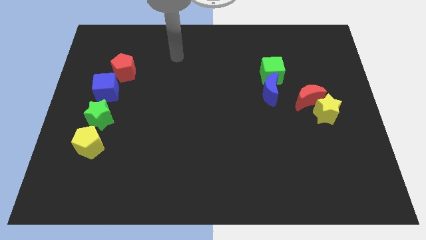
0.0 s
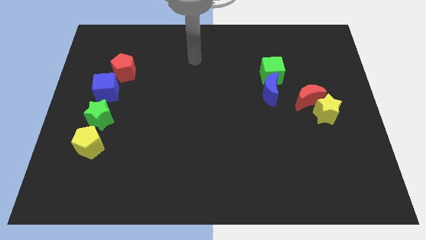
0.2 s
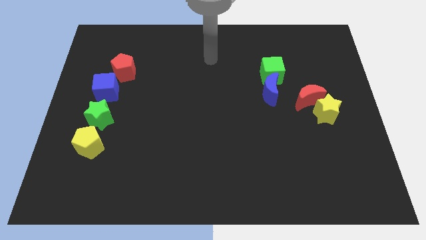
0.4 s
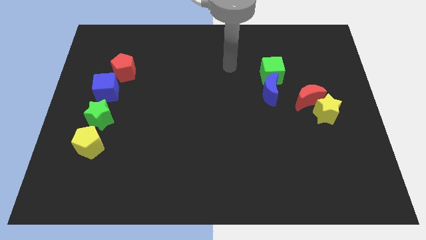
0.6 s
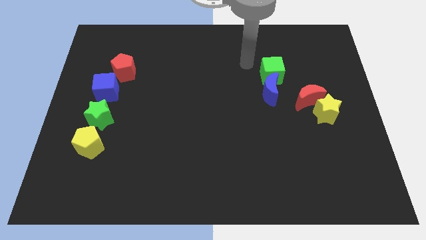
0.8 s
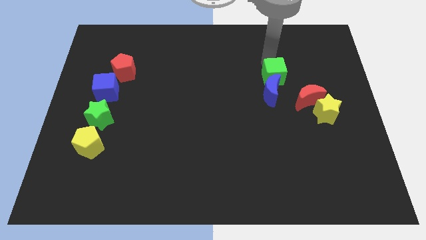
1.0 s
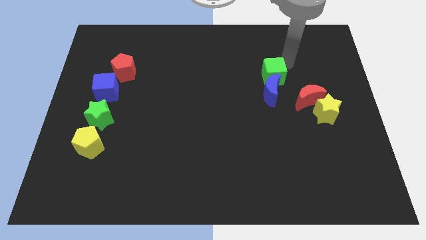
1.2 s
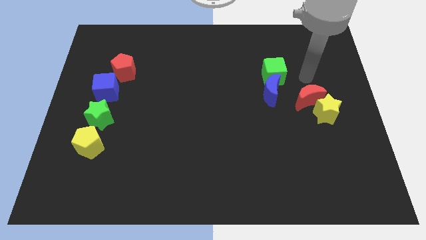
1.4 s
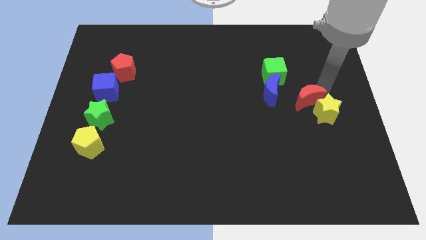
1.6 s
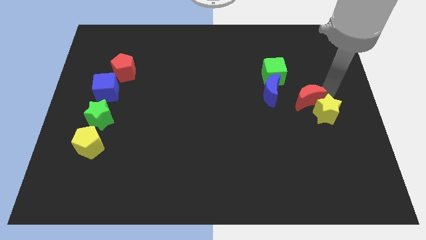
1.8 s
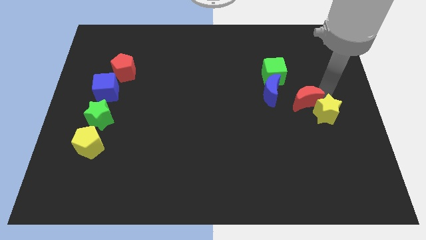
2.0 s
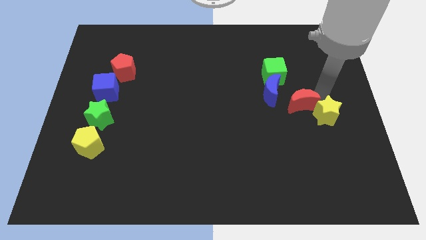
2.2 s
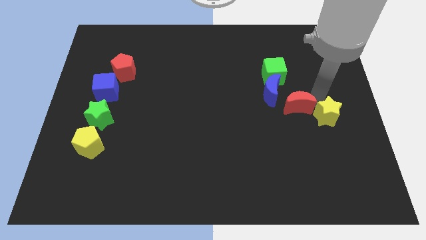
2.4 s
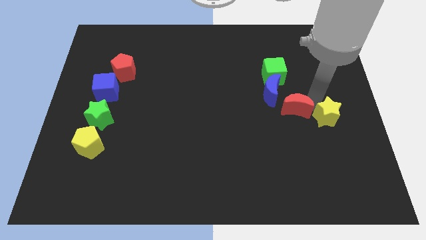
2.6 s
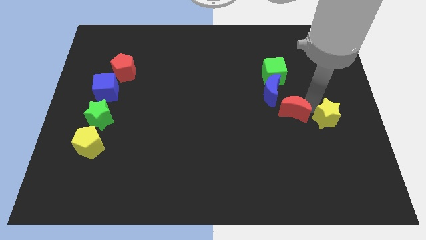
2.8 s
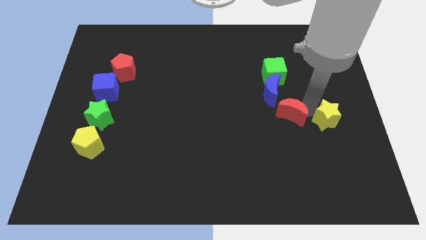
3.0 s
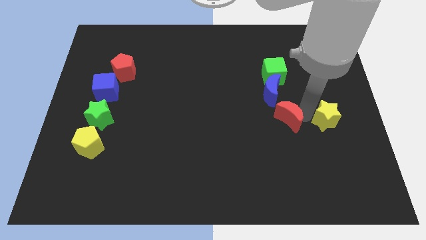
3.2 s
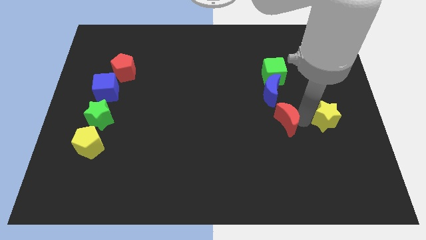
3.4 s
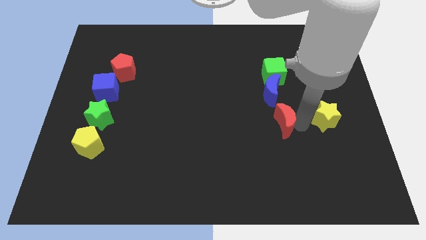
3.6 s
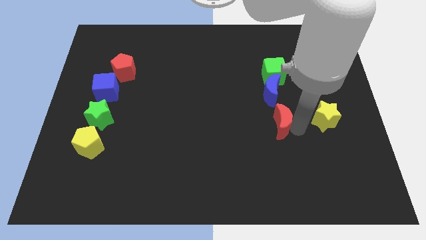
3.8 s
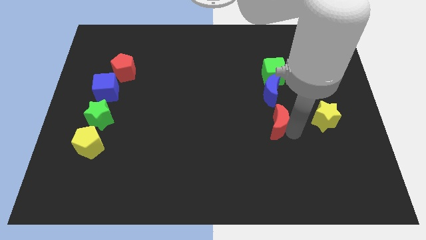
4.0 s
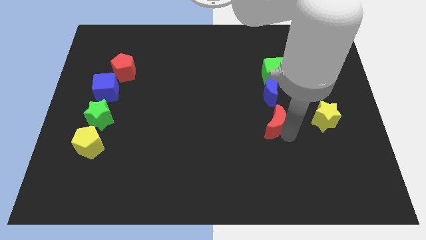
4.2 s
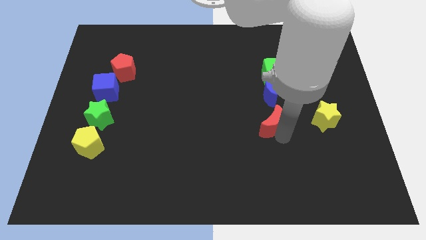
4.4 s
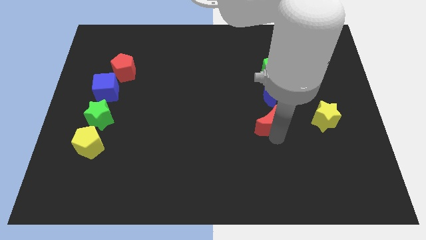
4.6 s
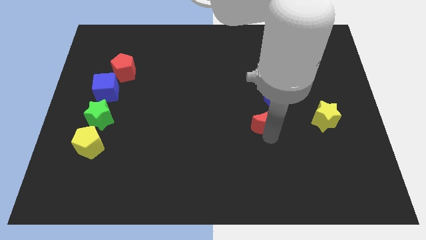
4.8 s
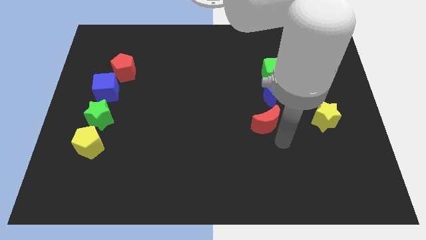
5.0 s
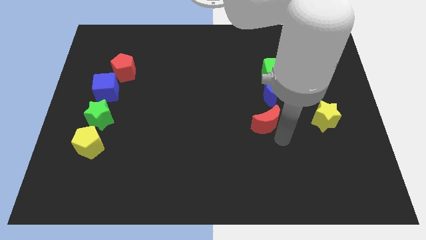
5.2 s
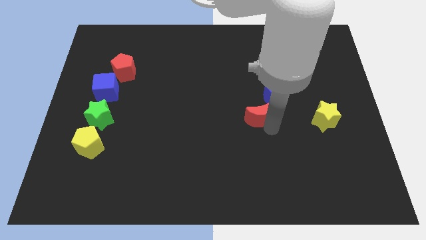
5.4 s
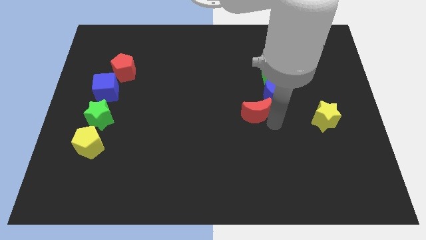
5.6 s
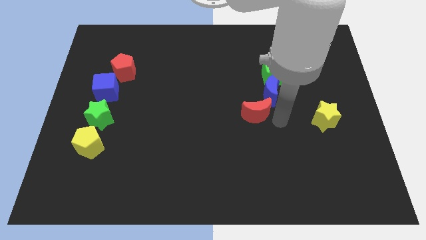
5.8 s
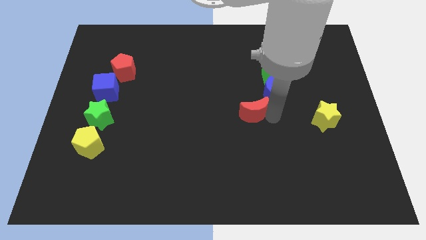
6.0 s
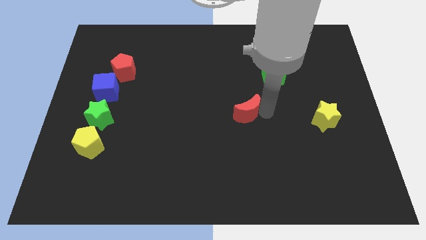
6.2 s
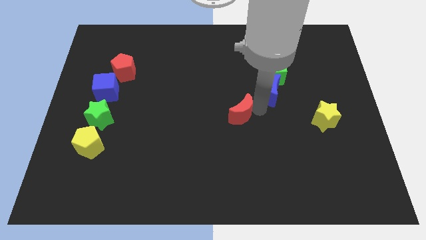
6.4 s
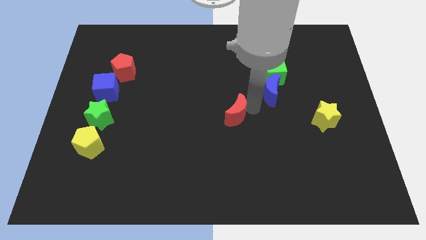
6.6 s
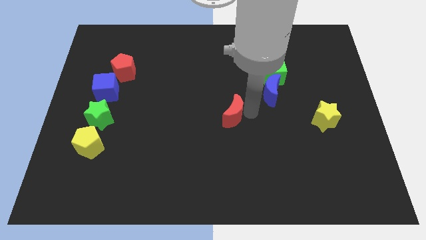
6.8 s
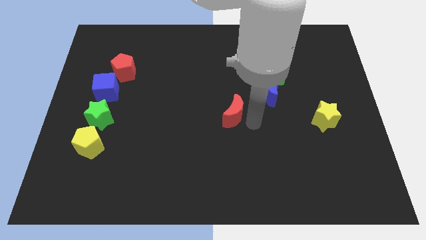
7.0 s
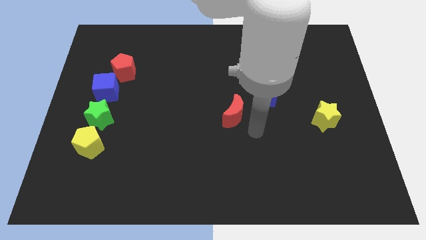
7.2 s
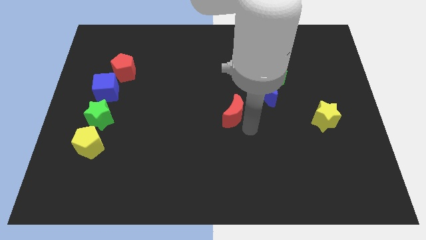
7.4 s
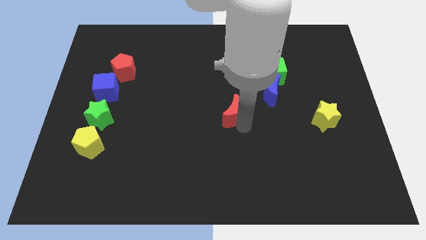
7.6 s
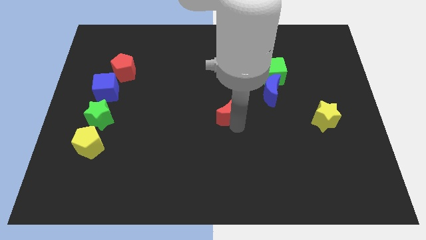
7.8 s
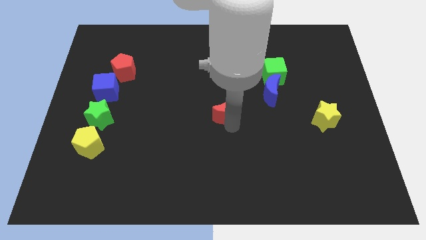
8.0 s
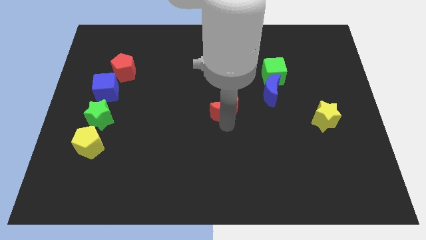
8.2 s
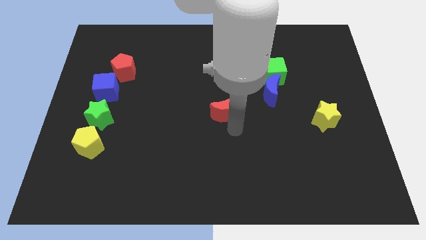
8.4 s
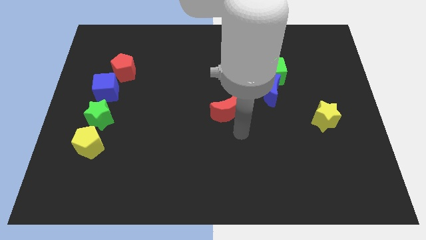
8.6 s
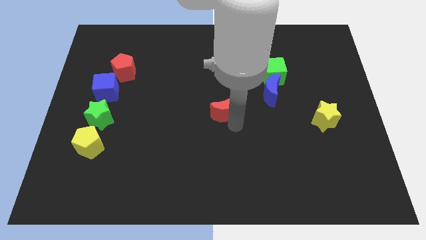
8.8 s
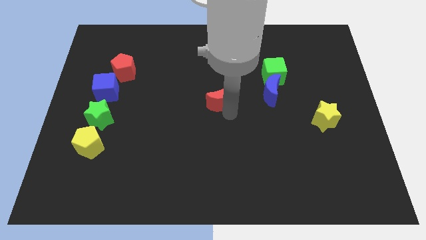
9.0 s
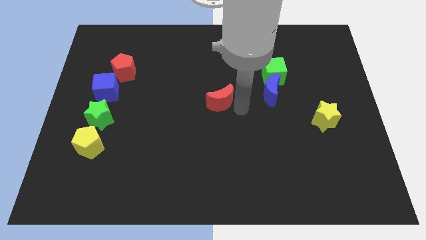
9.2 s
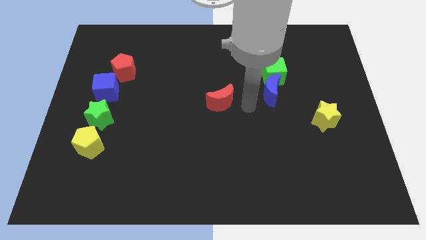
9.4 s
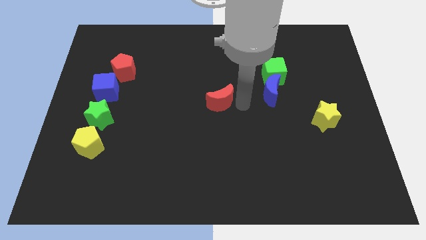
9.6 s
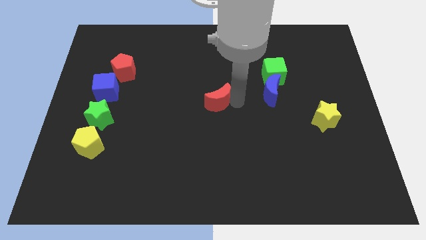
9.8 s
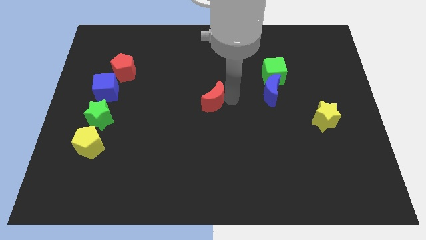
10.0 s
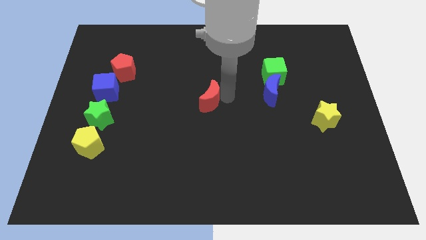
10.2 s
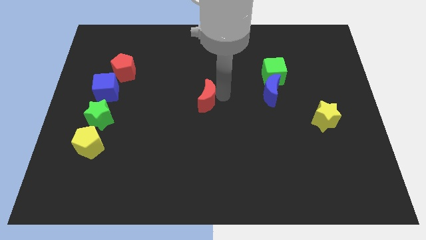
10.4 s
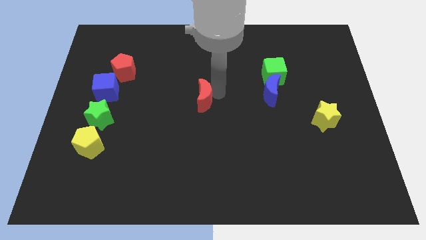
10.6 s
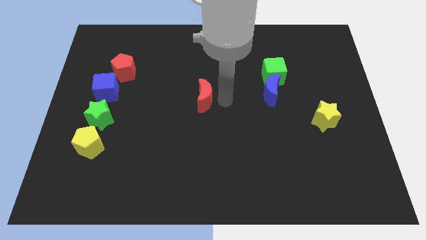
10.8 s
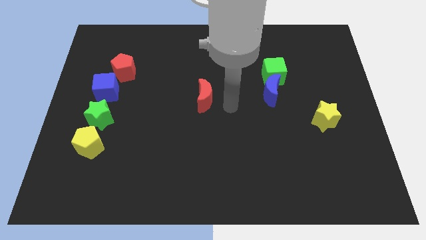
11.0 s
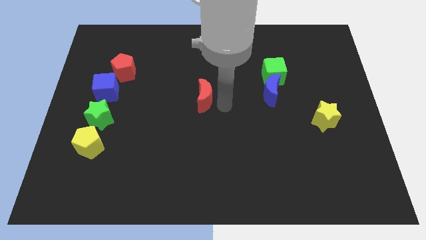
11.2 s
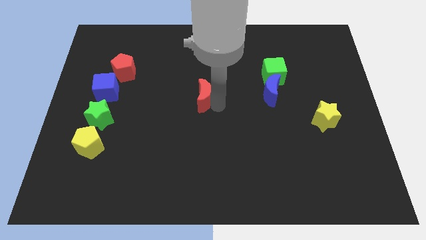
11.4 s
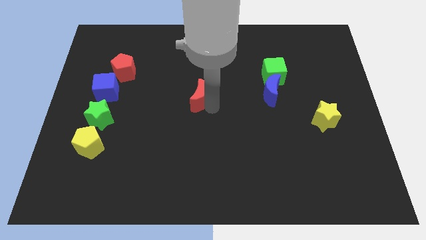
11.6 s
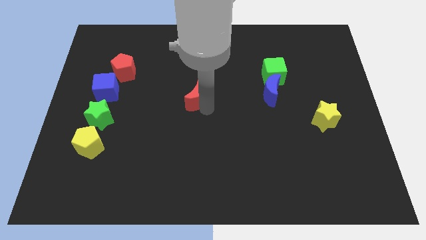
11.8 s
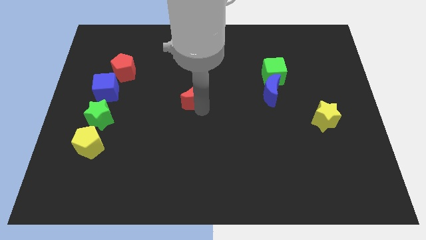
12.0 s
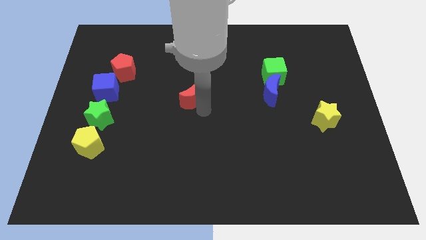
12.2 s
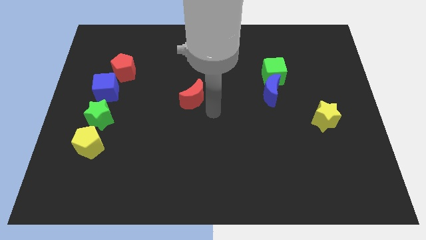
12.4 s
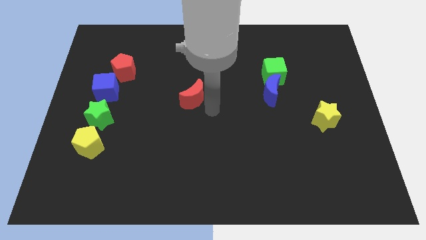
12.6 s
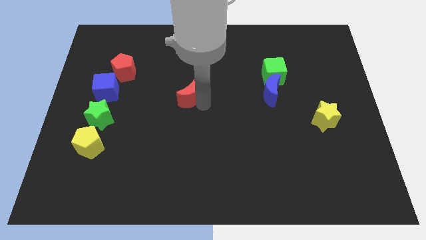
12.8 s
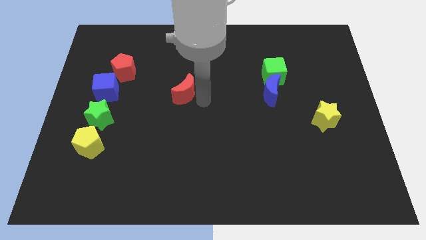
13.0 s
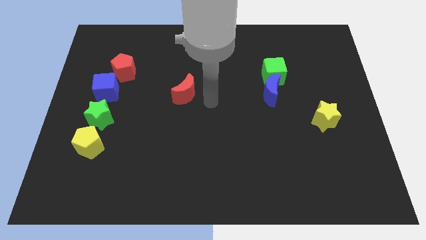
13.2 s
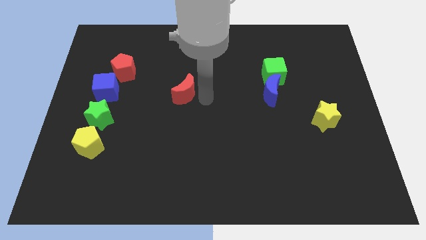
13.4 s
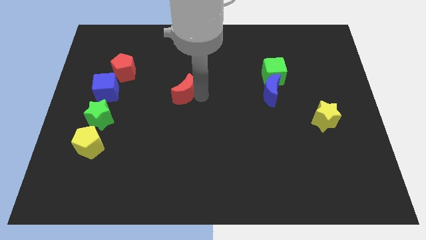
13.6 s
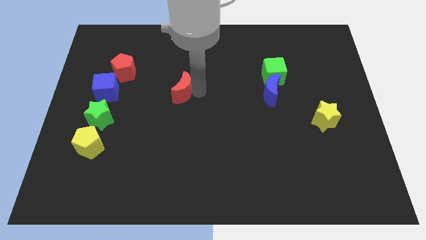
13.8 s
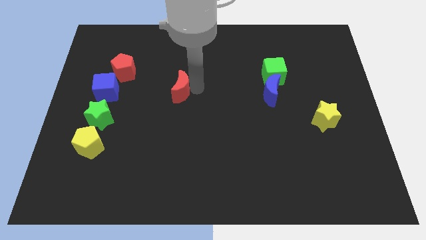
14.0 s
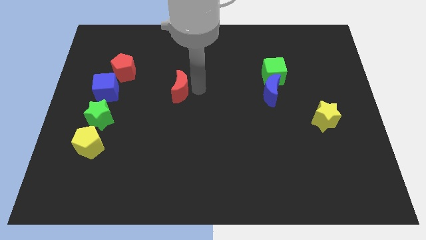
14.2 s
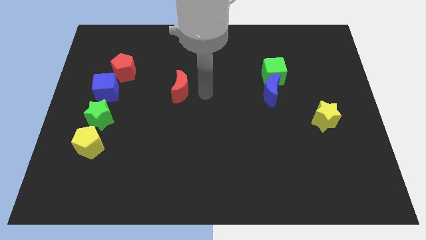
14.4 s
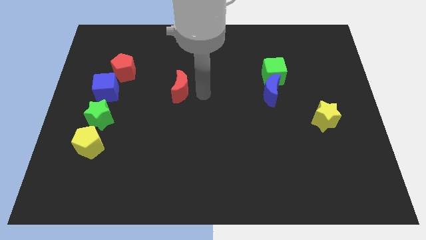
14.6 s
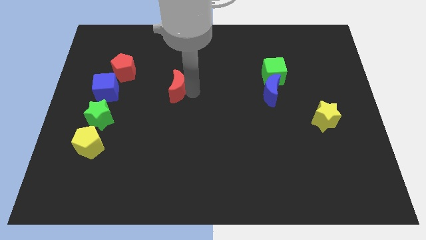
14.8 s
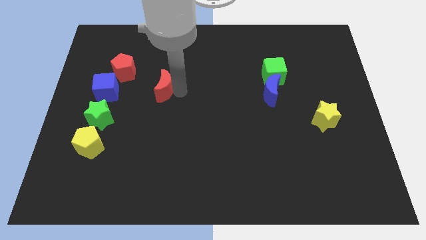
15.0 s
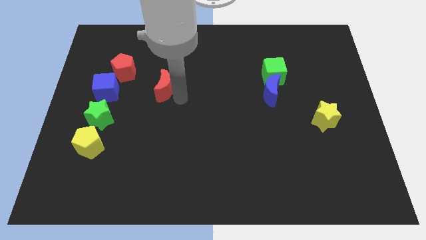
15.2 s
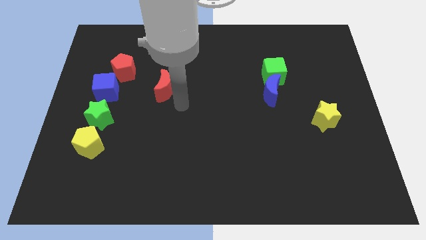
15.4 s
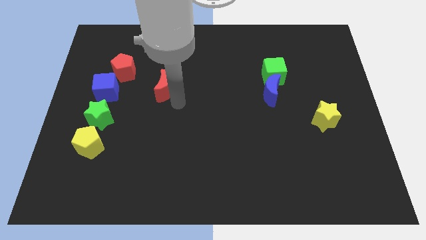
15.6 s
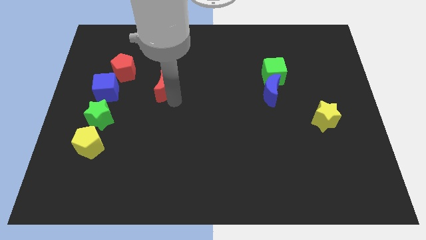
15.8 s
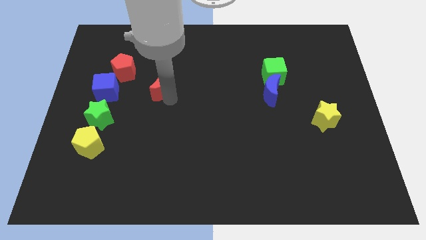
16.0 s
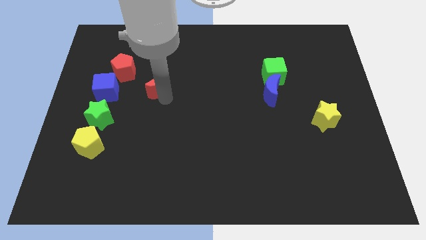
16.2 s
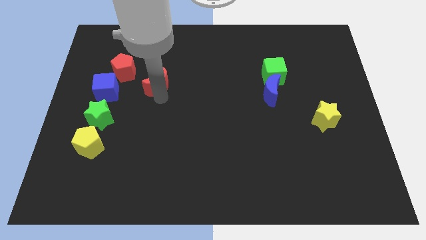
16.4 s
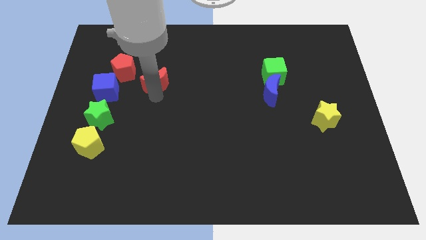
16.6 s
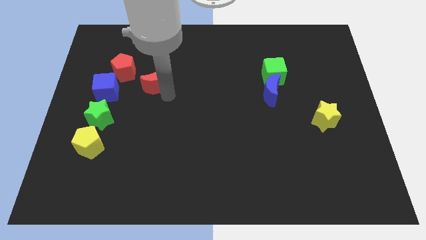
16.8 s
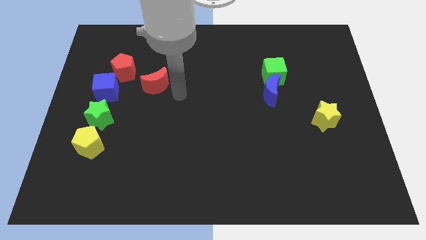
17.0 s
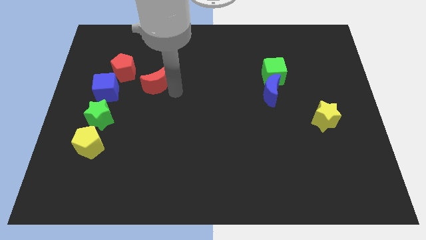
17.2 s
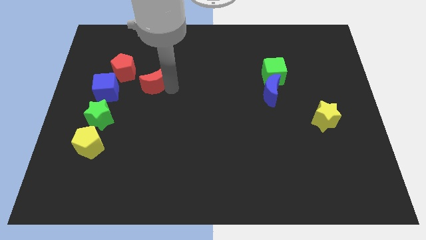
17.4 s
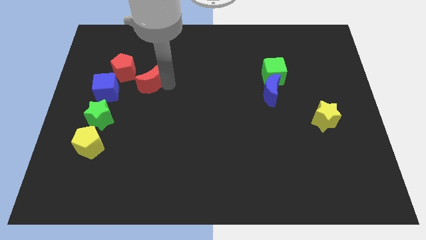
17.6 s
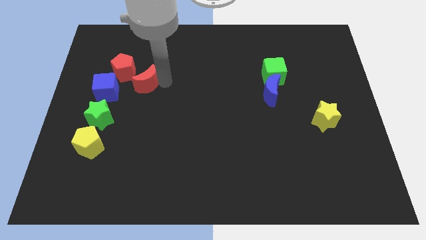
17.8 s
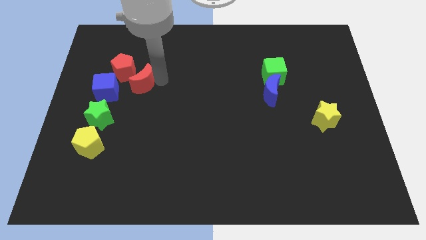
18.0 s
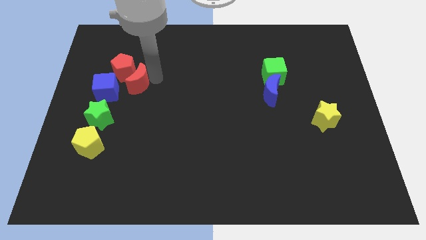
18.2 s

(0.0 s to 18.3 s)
move the red moon towards the red pentagon
